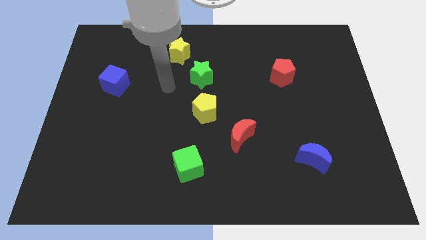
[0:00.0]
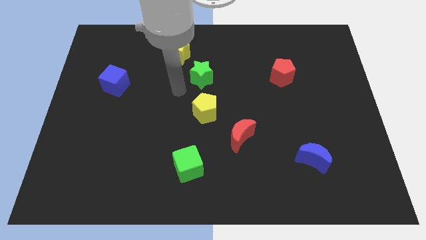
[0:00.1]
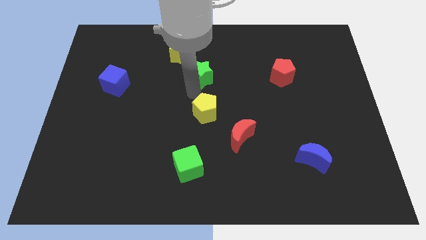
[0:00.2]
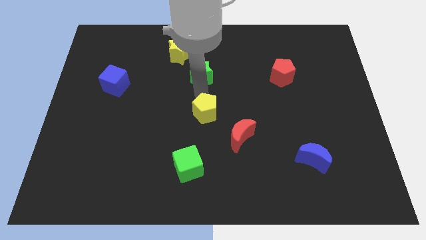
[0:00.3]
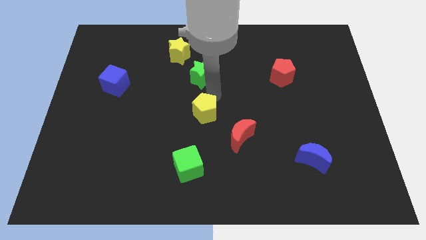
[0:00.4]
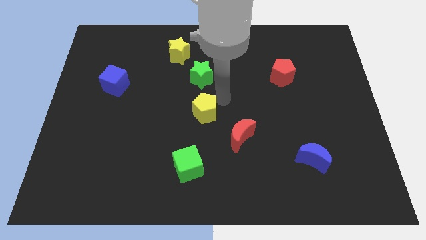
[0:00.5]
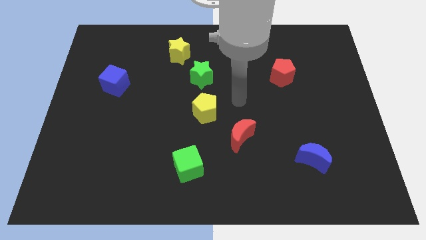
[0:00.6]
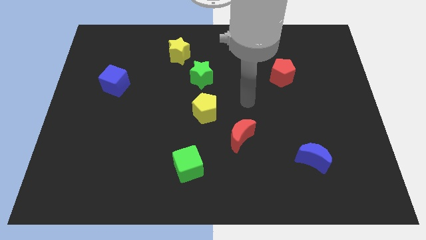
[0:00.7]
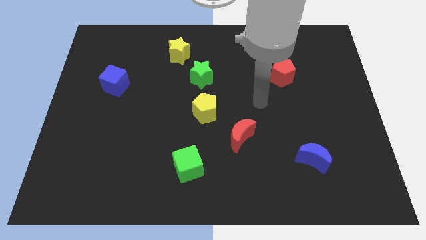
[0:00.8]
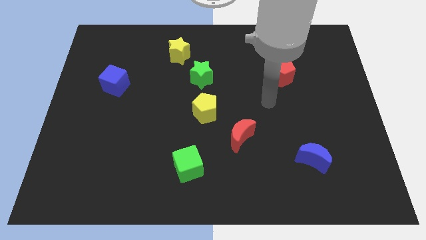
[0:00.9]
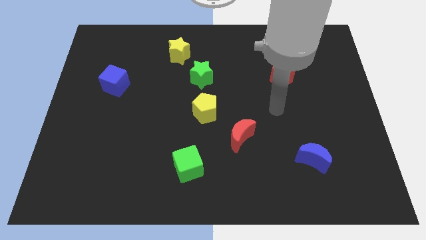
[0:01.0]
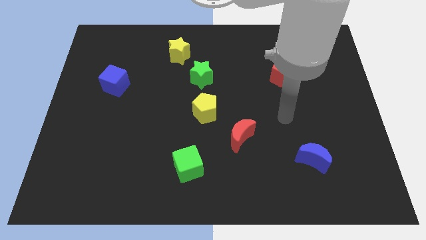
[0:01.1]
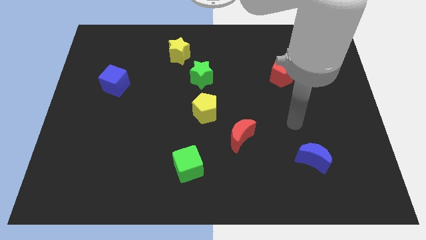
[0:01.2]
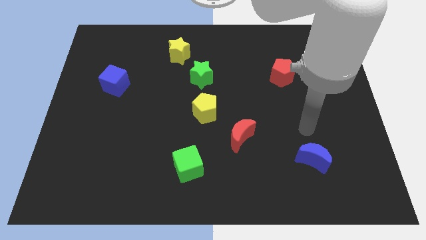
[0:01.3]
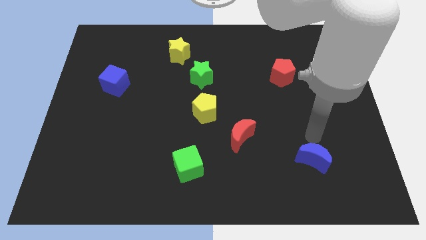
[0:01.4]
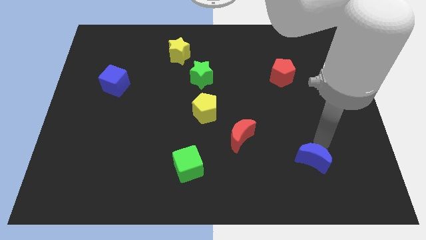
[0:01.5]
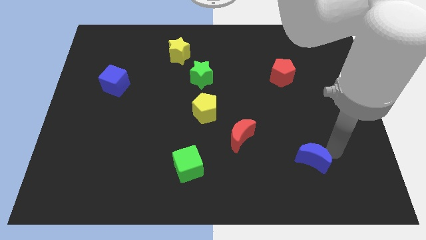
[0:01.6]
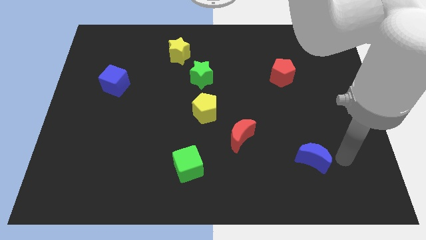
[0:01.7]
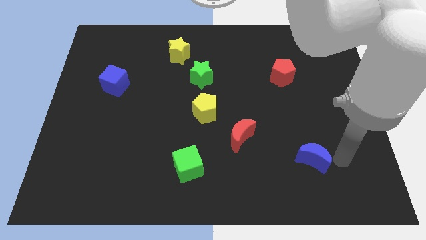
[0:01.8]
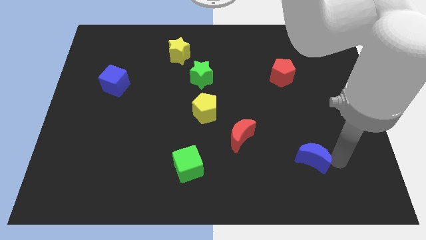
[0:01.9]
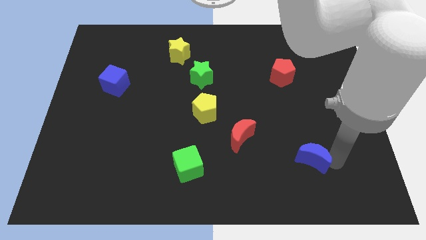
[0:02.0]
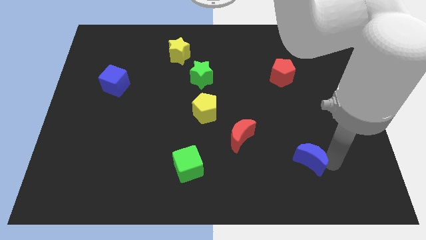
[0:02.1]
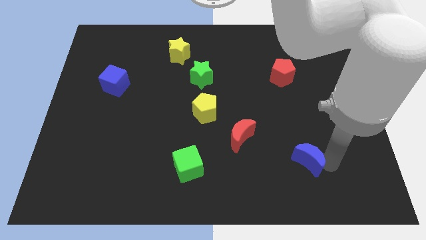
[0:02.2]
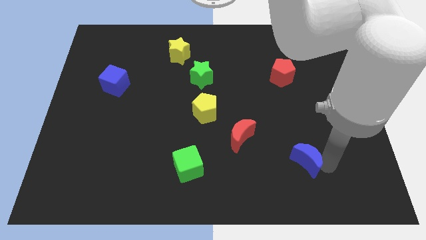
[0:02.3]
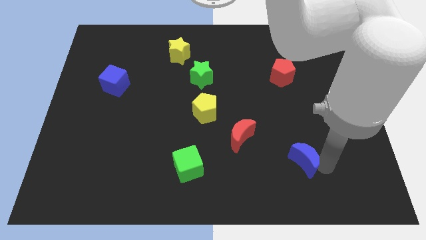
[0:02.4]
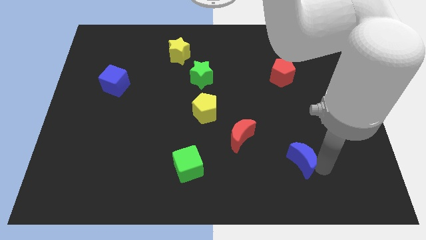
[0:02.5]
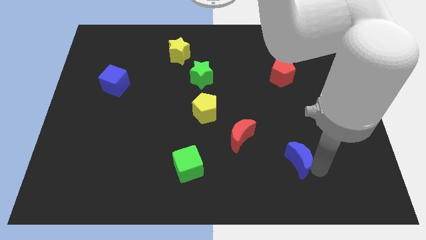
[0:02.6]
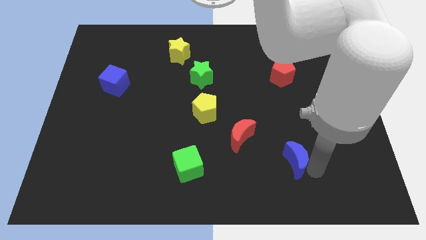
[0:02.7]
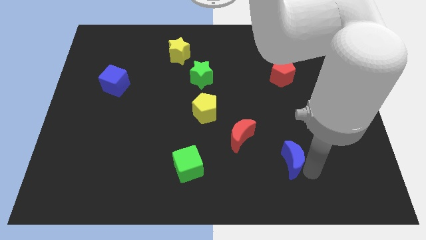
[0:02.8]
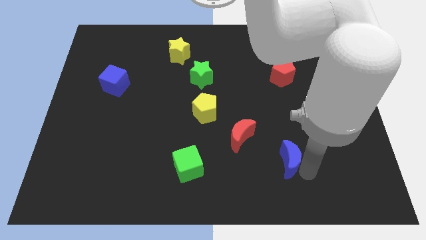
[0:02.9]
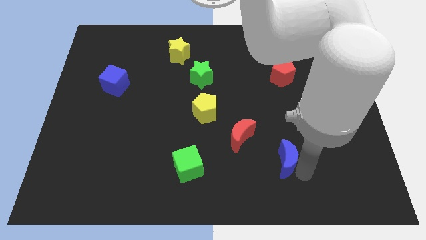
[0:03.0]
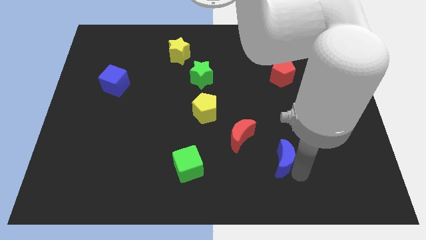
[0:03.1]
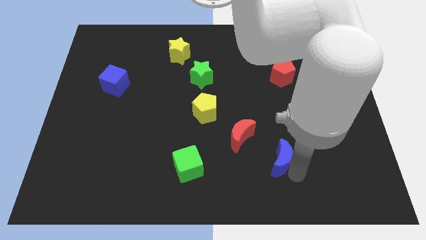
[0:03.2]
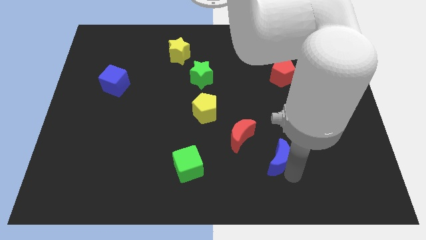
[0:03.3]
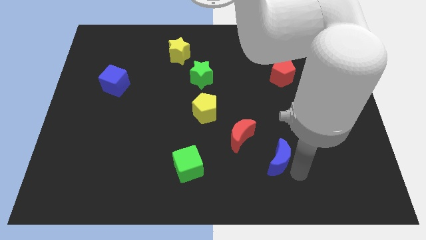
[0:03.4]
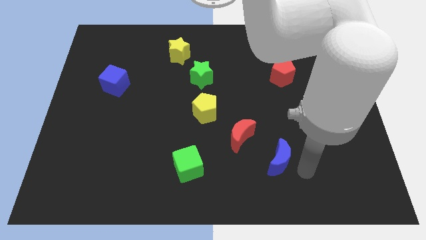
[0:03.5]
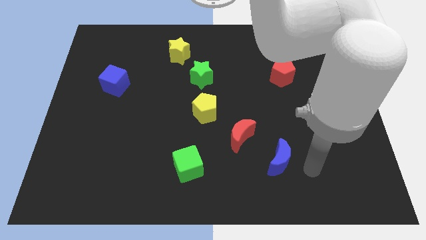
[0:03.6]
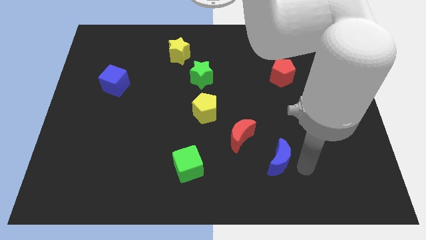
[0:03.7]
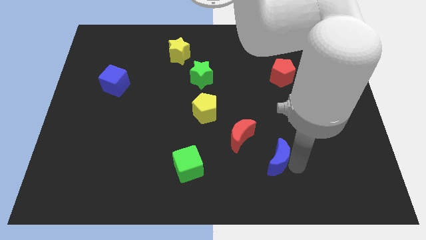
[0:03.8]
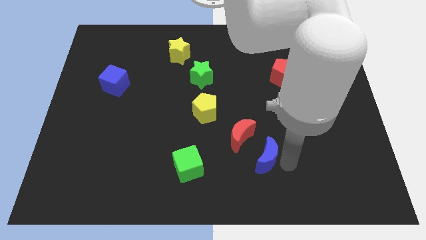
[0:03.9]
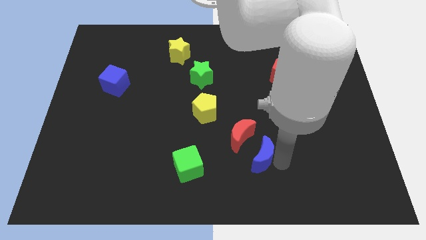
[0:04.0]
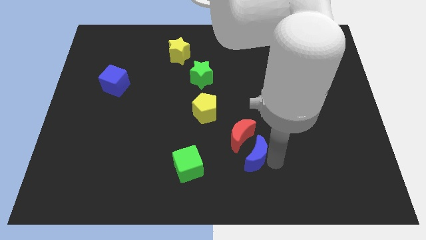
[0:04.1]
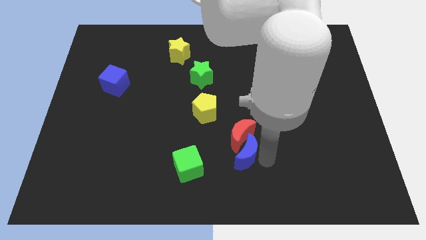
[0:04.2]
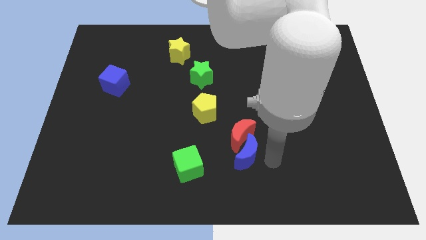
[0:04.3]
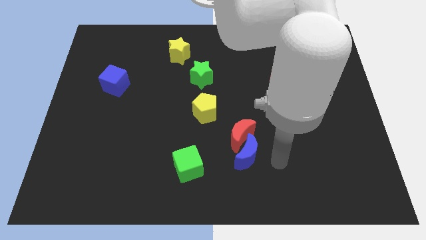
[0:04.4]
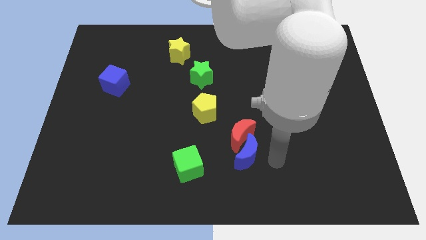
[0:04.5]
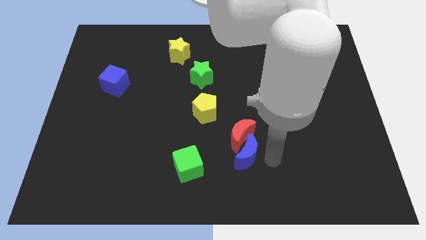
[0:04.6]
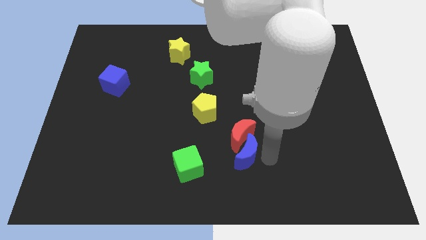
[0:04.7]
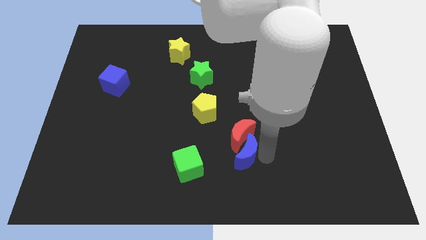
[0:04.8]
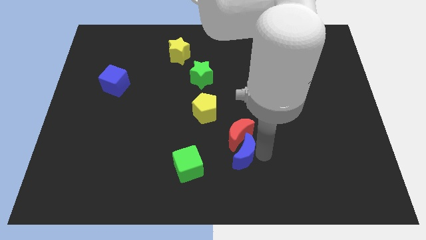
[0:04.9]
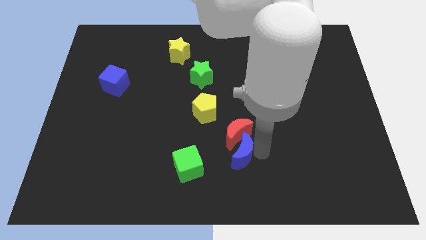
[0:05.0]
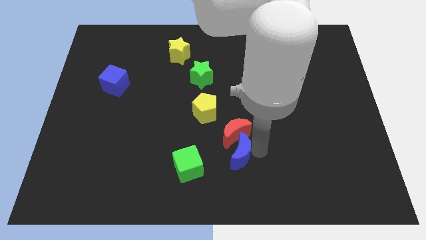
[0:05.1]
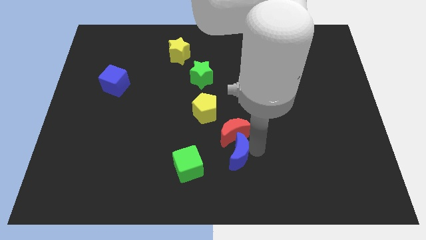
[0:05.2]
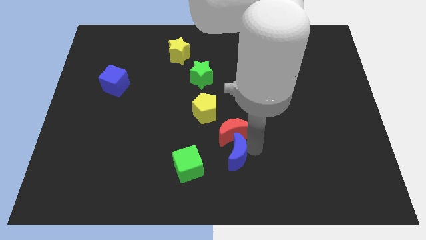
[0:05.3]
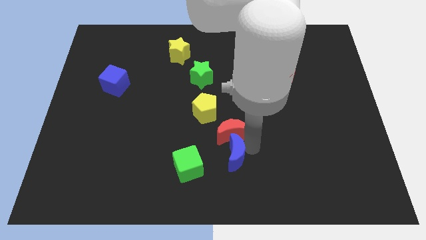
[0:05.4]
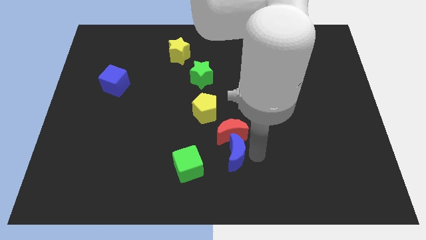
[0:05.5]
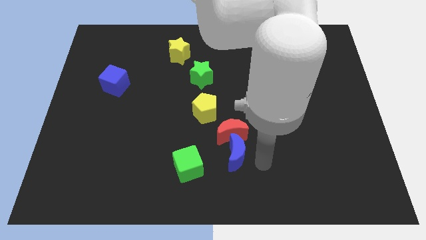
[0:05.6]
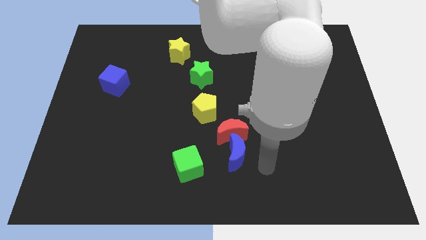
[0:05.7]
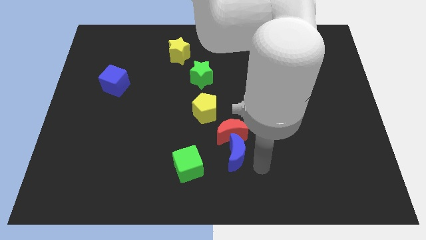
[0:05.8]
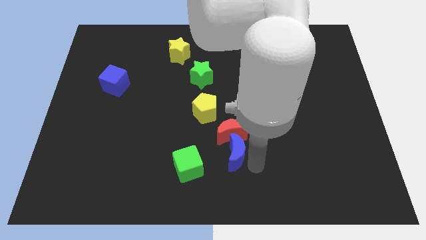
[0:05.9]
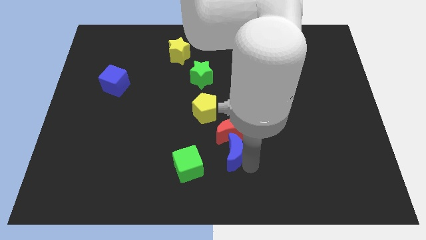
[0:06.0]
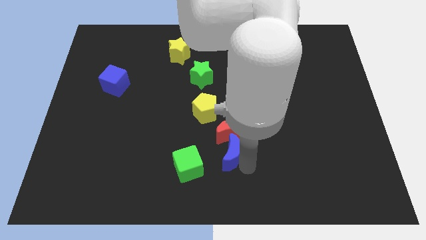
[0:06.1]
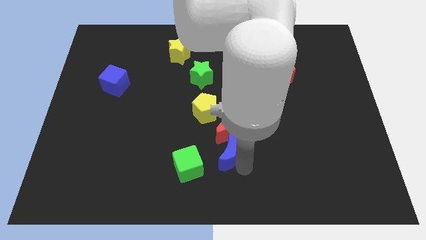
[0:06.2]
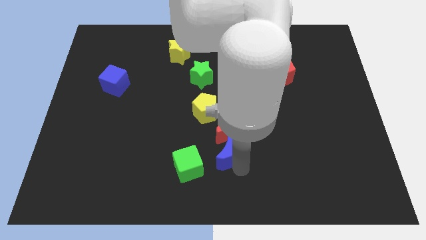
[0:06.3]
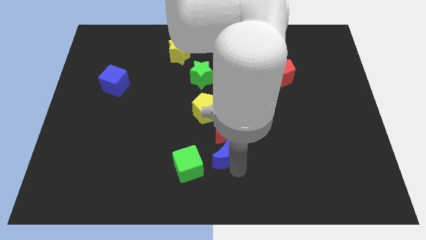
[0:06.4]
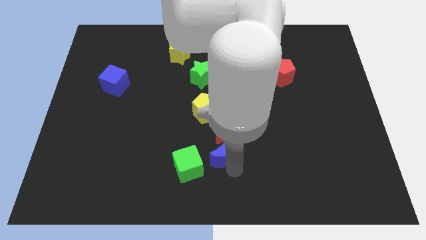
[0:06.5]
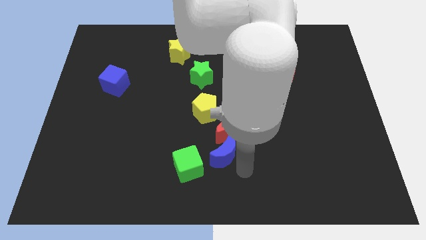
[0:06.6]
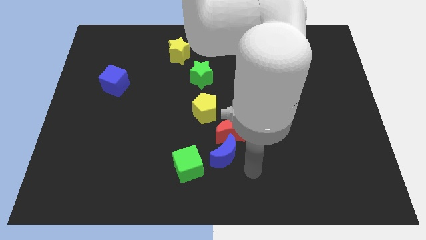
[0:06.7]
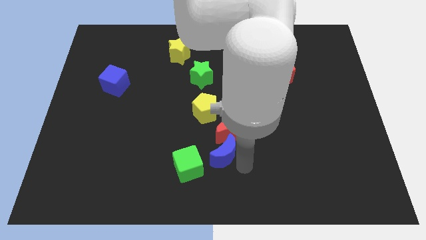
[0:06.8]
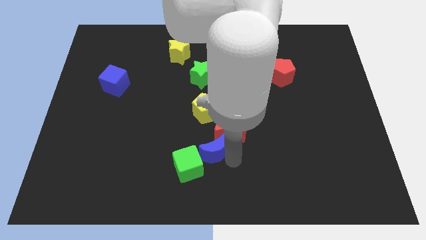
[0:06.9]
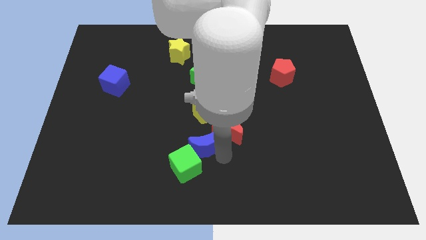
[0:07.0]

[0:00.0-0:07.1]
put the blue moon to the left side of the red moon
